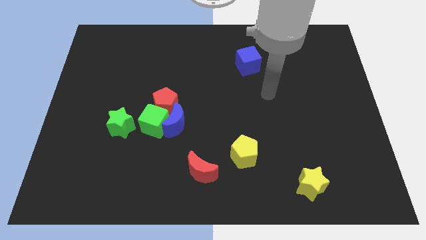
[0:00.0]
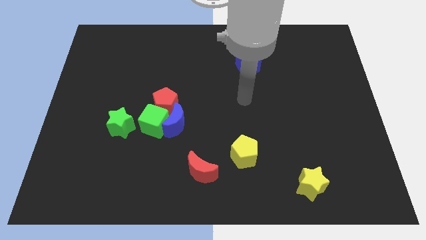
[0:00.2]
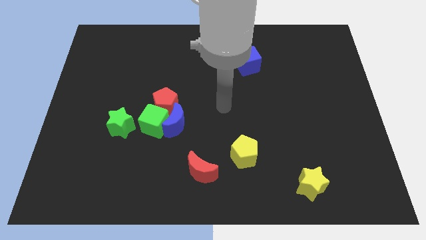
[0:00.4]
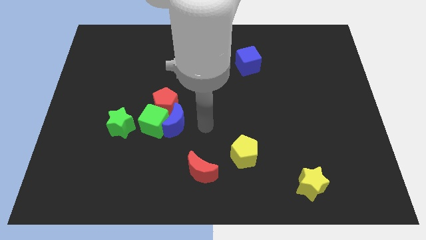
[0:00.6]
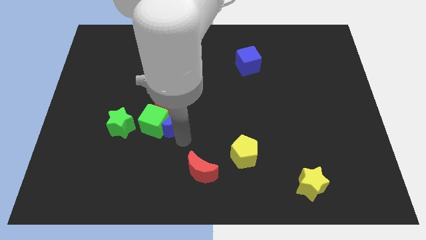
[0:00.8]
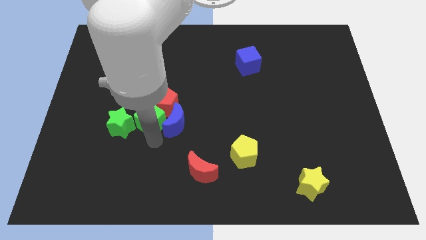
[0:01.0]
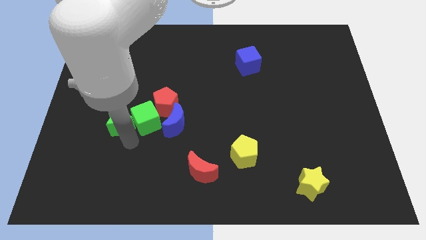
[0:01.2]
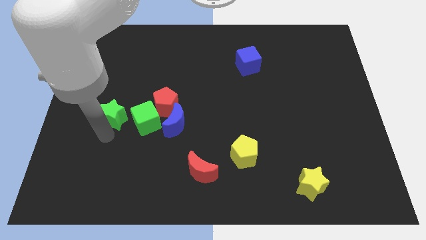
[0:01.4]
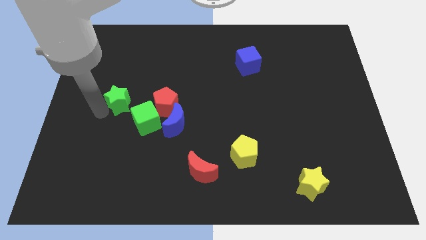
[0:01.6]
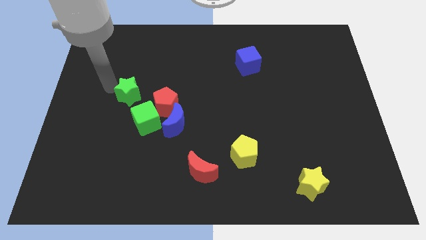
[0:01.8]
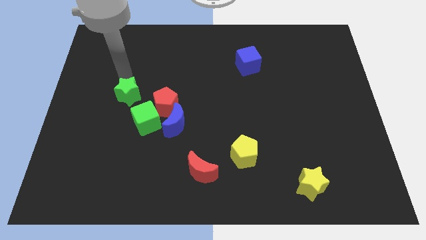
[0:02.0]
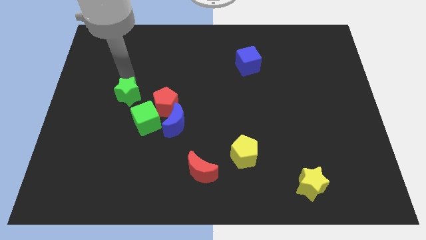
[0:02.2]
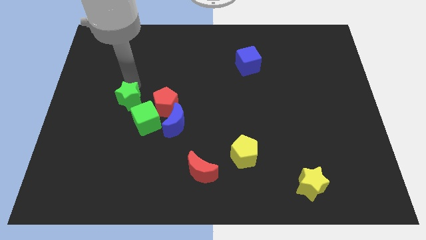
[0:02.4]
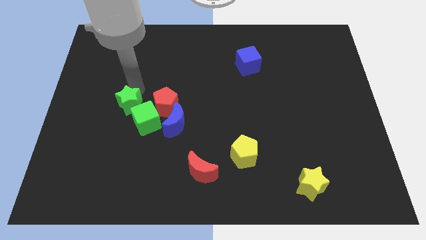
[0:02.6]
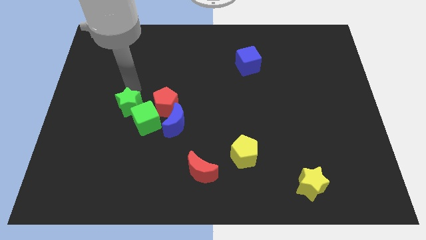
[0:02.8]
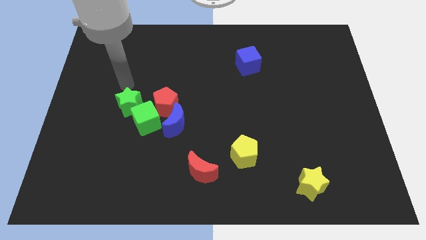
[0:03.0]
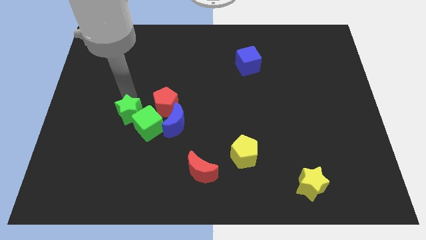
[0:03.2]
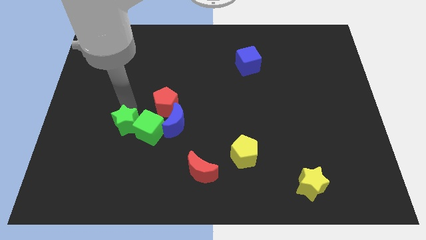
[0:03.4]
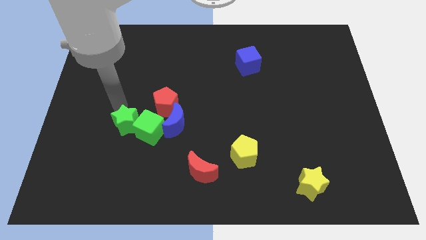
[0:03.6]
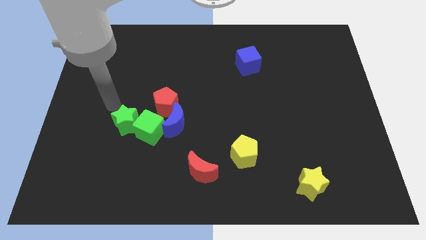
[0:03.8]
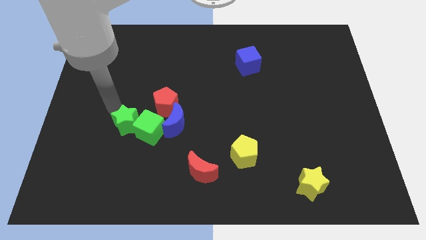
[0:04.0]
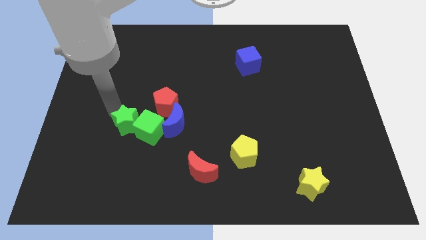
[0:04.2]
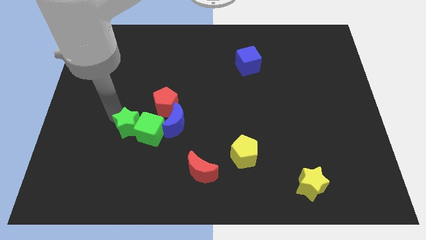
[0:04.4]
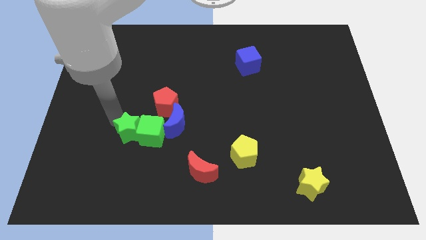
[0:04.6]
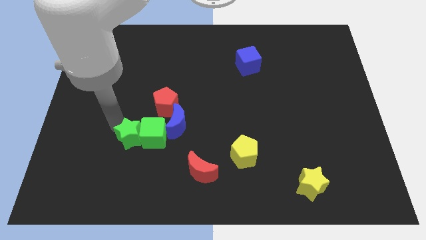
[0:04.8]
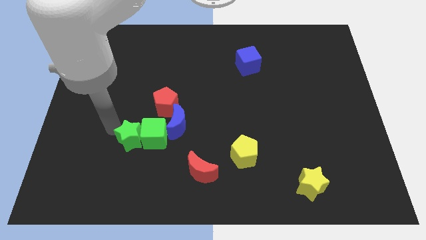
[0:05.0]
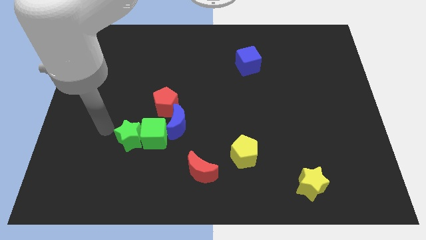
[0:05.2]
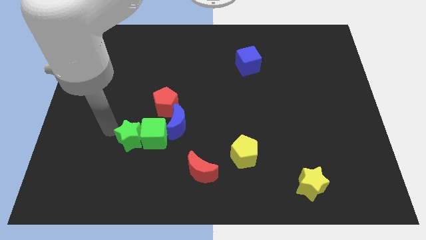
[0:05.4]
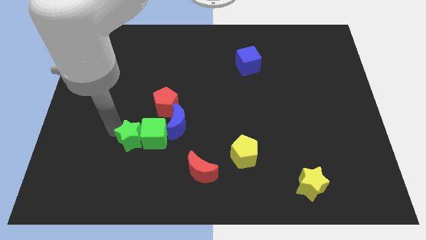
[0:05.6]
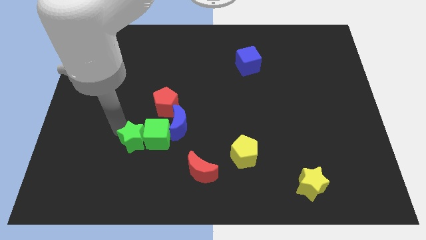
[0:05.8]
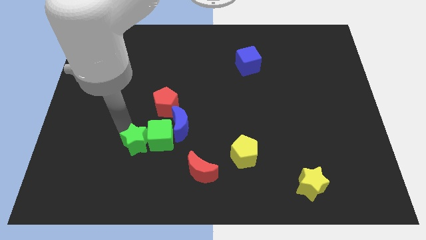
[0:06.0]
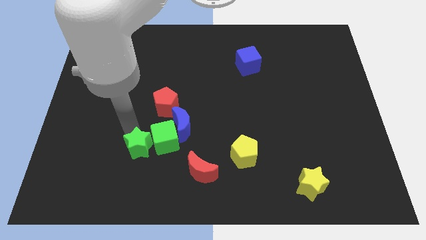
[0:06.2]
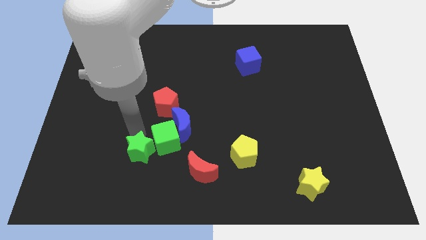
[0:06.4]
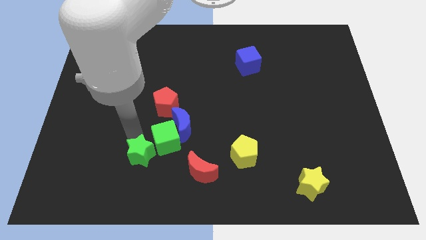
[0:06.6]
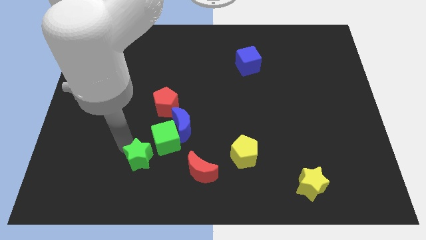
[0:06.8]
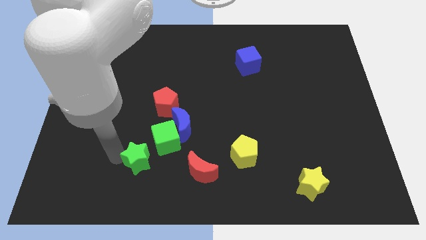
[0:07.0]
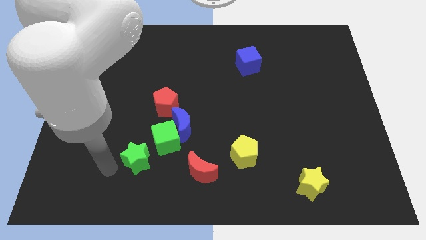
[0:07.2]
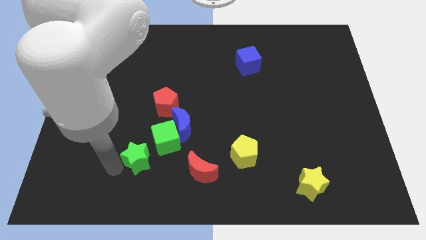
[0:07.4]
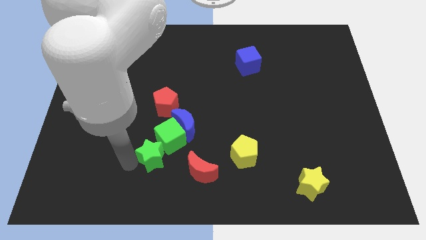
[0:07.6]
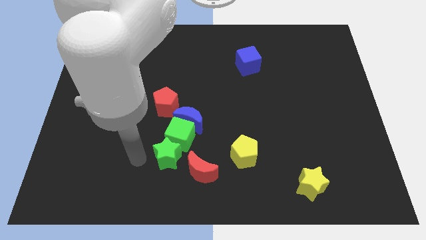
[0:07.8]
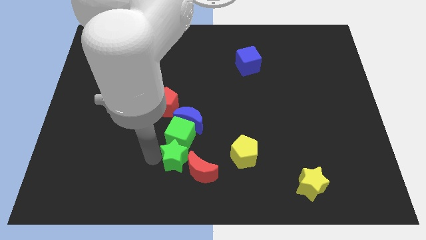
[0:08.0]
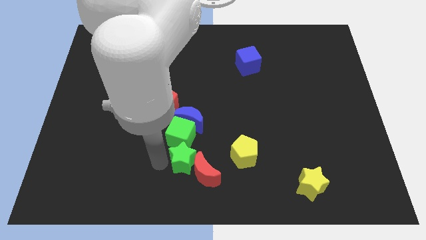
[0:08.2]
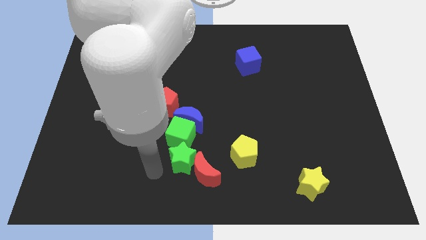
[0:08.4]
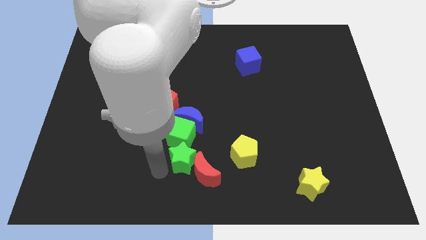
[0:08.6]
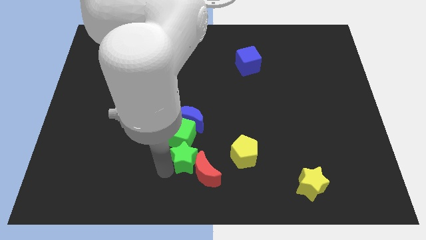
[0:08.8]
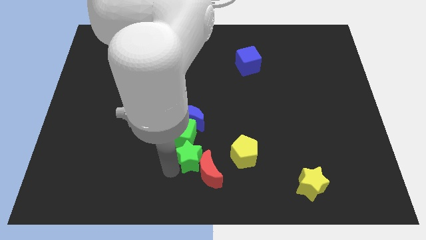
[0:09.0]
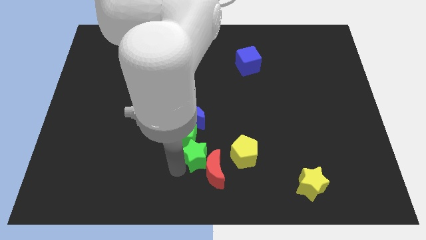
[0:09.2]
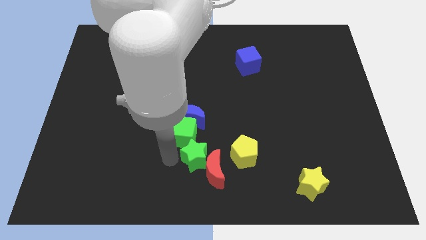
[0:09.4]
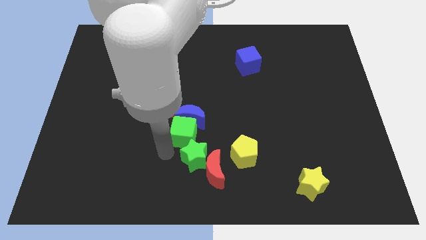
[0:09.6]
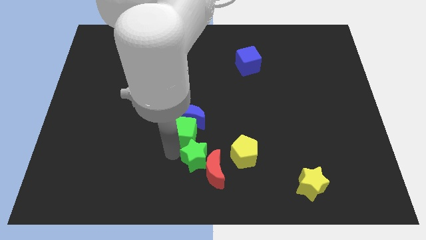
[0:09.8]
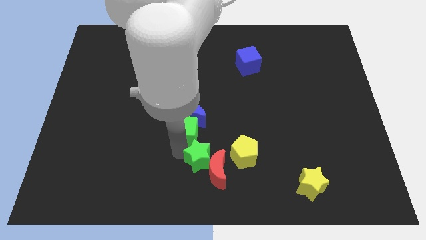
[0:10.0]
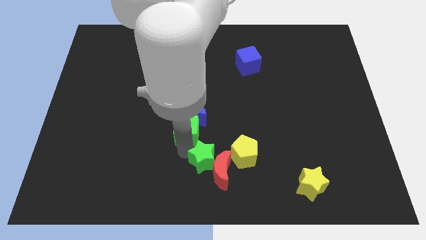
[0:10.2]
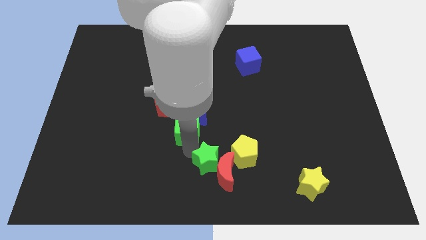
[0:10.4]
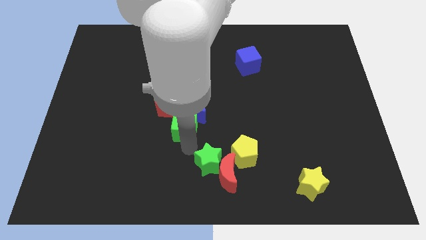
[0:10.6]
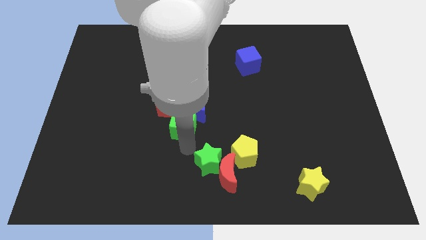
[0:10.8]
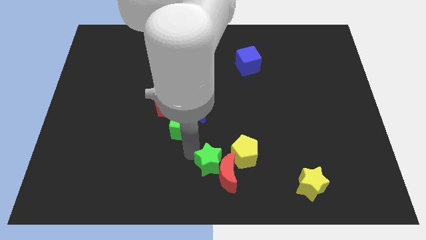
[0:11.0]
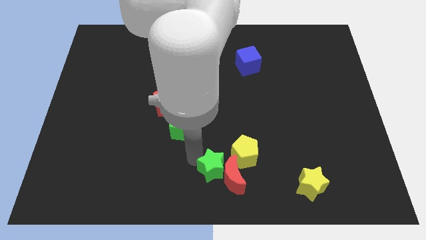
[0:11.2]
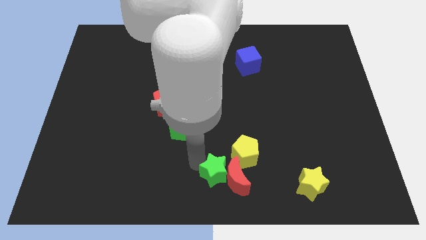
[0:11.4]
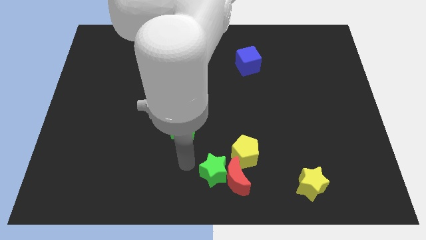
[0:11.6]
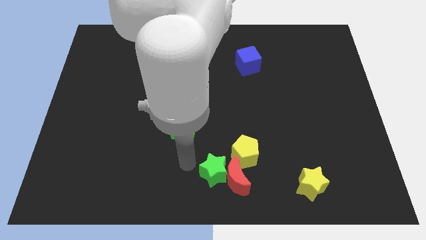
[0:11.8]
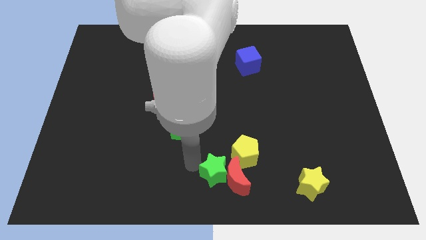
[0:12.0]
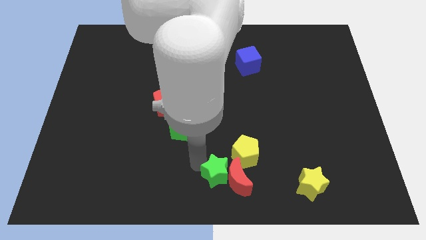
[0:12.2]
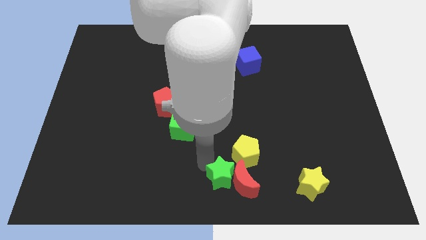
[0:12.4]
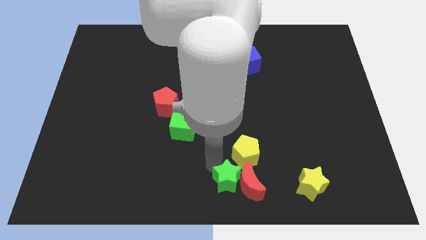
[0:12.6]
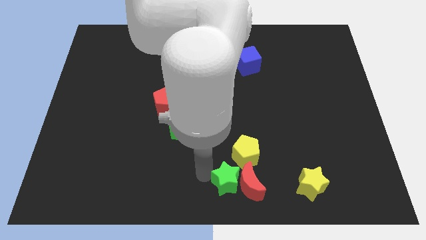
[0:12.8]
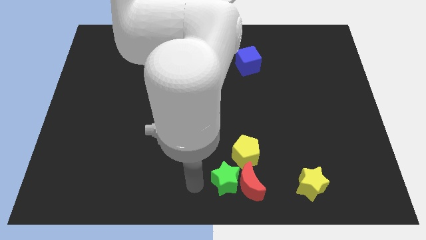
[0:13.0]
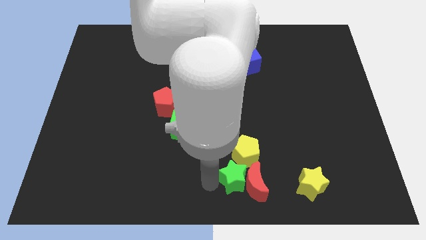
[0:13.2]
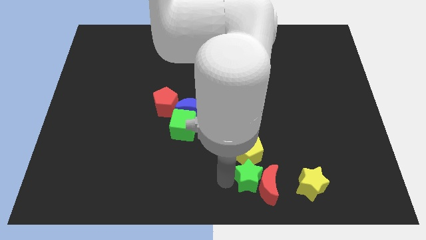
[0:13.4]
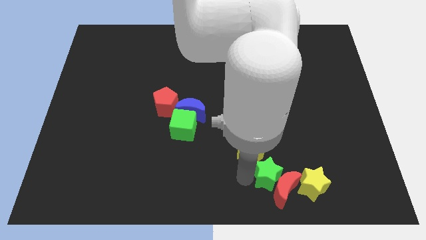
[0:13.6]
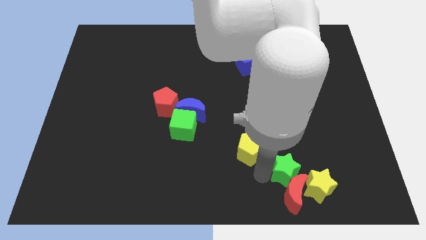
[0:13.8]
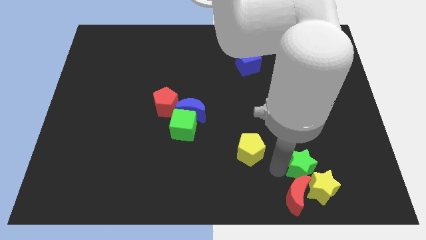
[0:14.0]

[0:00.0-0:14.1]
slide the green star close to the yellow star

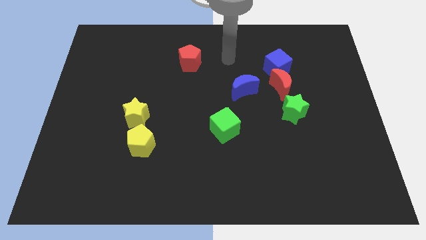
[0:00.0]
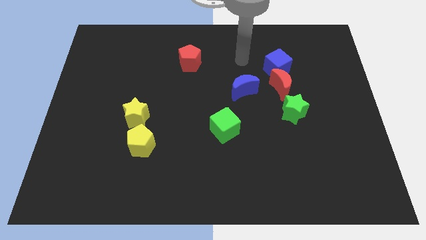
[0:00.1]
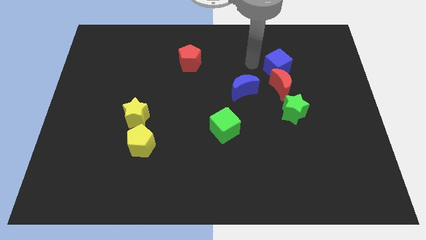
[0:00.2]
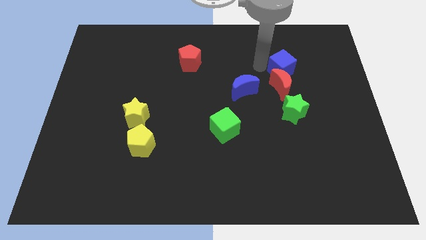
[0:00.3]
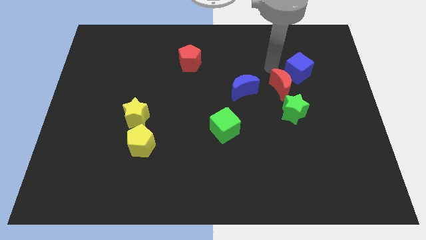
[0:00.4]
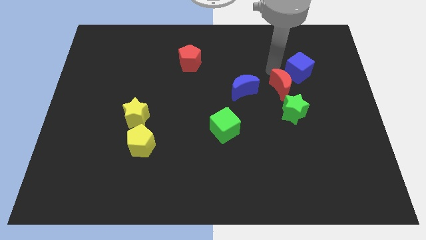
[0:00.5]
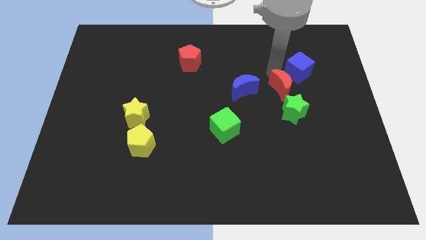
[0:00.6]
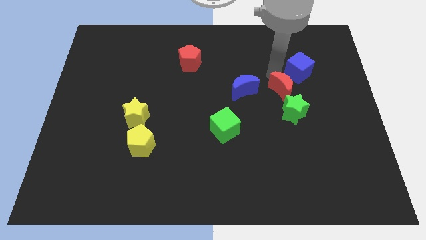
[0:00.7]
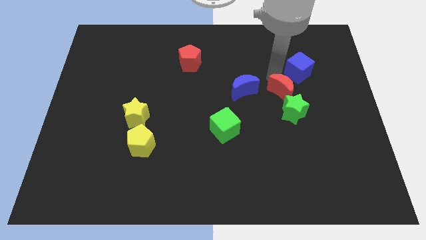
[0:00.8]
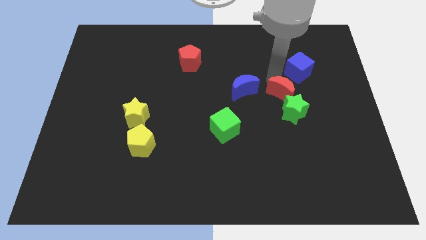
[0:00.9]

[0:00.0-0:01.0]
push the red moon next to the green star
